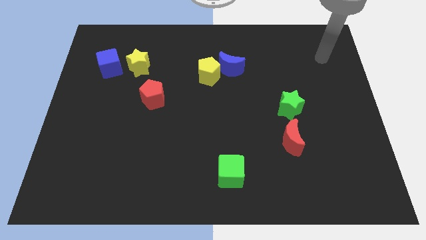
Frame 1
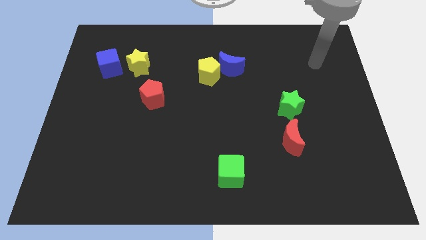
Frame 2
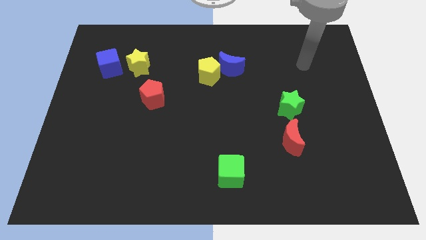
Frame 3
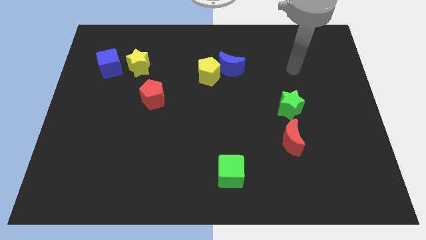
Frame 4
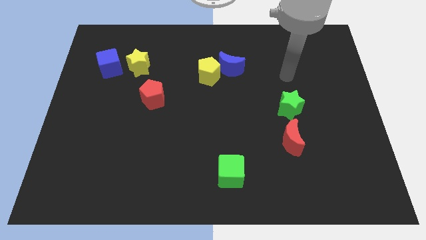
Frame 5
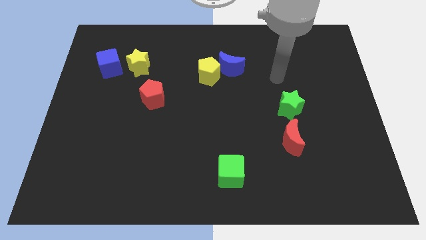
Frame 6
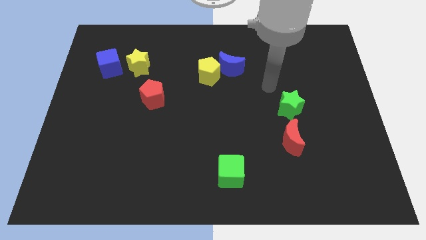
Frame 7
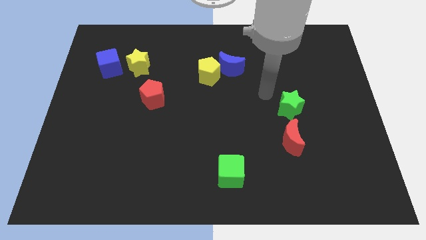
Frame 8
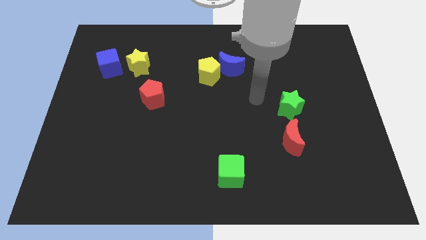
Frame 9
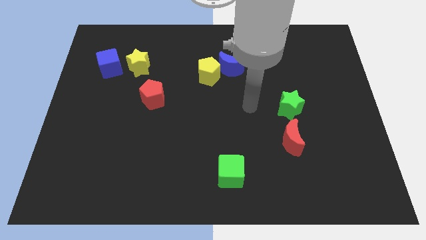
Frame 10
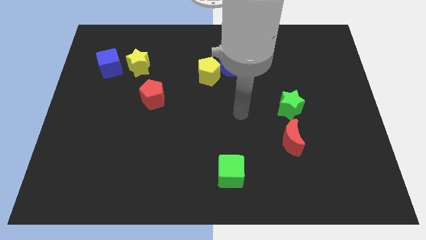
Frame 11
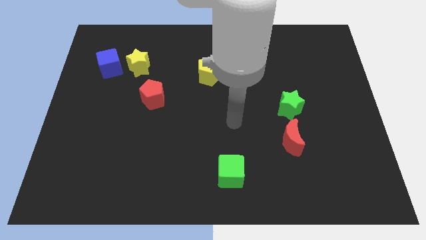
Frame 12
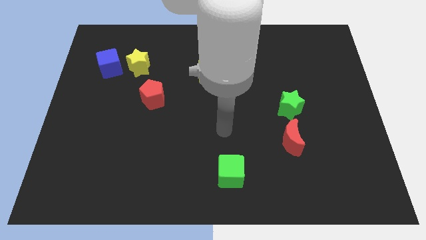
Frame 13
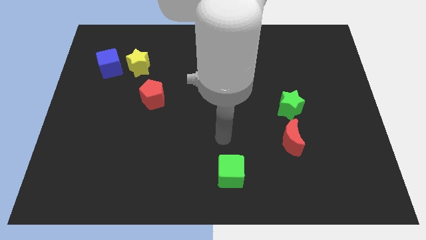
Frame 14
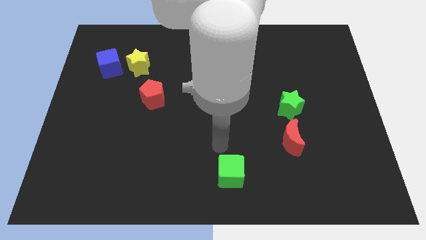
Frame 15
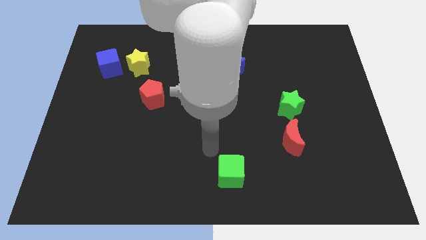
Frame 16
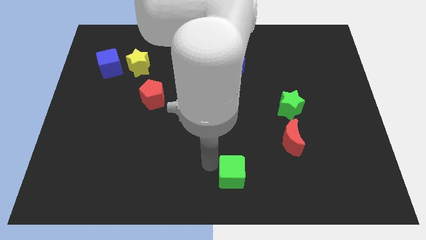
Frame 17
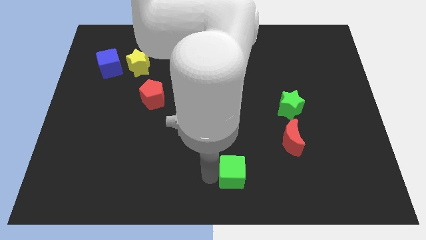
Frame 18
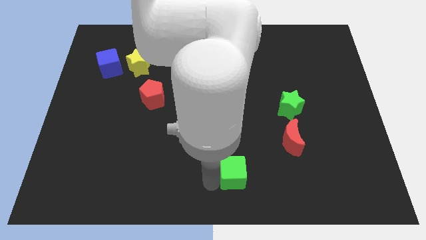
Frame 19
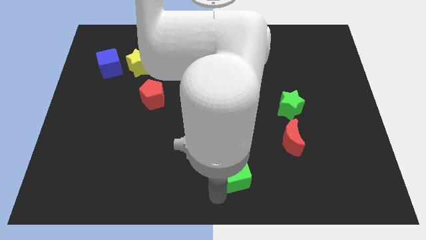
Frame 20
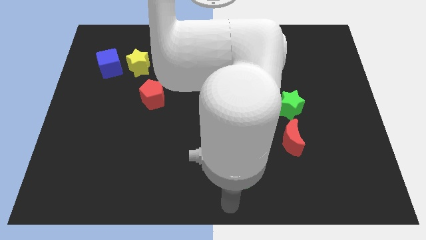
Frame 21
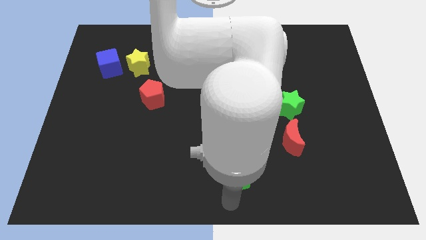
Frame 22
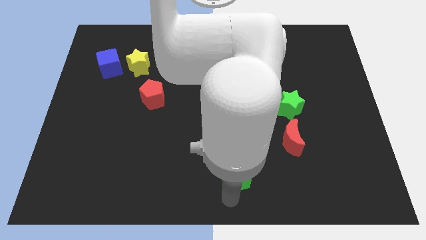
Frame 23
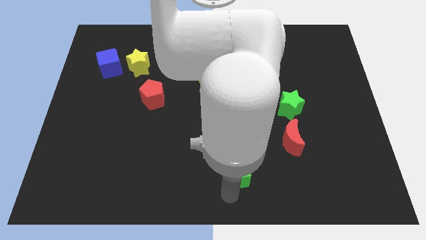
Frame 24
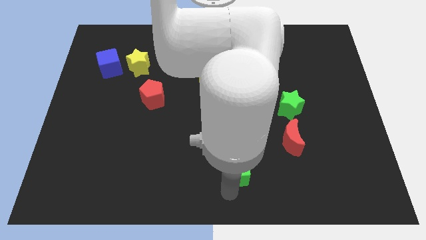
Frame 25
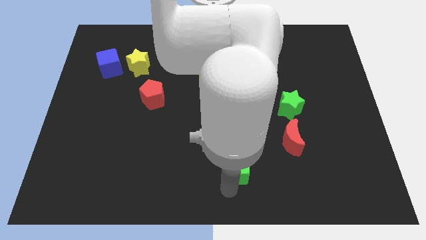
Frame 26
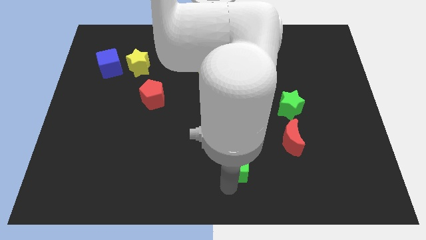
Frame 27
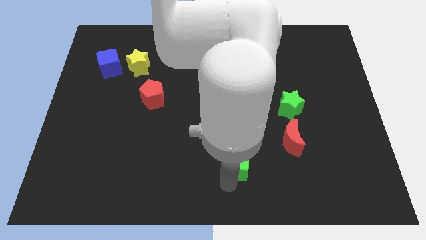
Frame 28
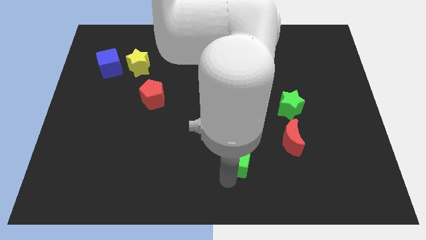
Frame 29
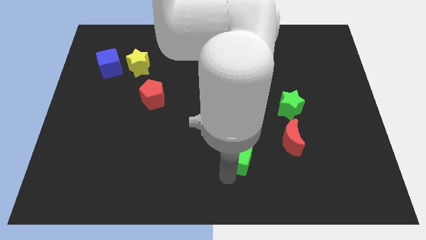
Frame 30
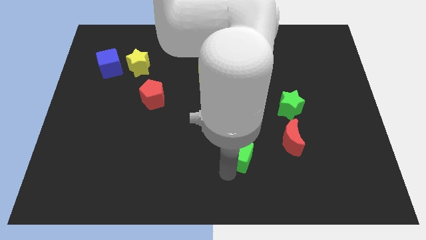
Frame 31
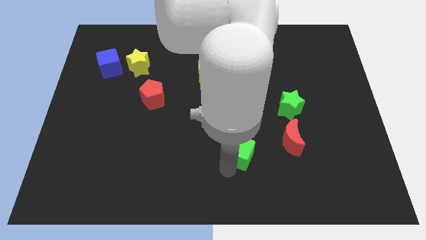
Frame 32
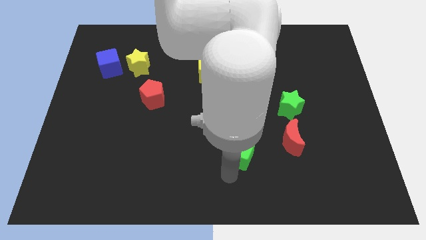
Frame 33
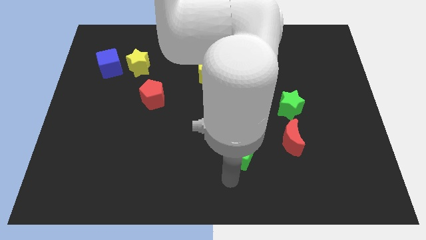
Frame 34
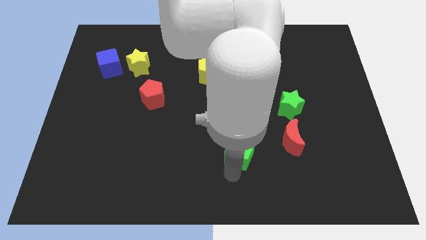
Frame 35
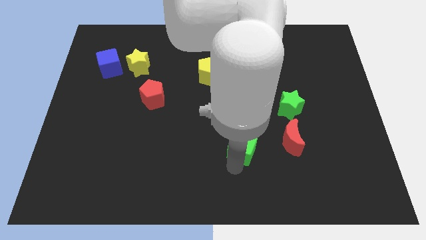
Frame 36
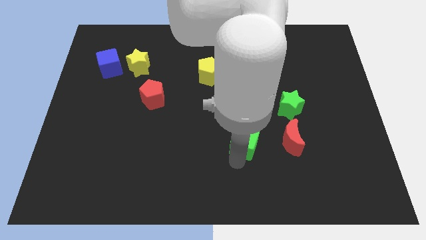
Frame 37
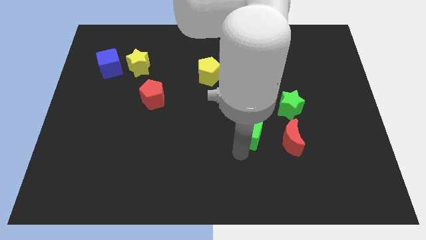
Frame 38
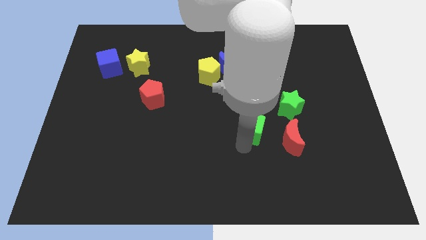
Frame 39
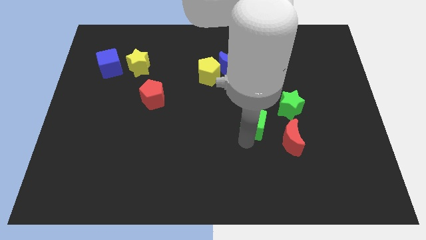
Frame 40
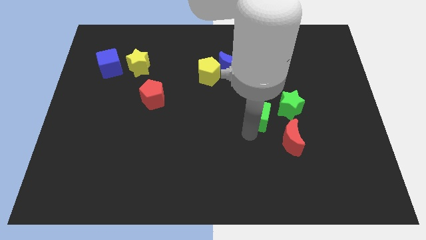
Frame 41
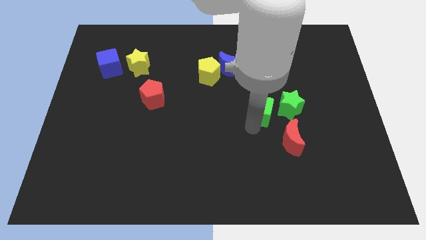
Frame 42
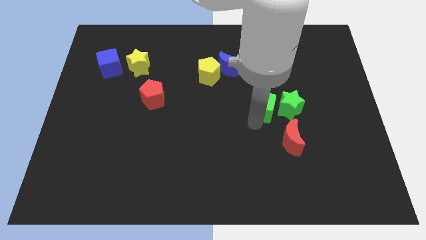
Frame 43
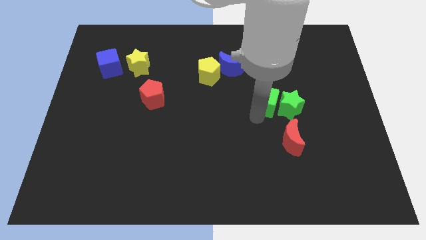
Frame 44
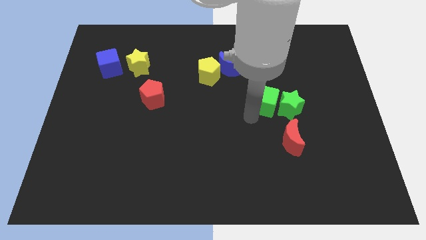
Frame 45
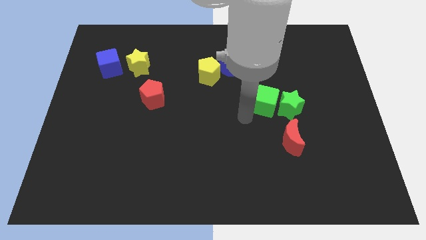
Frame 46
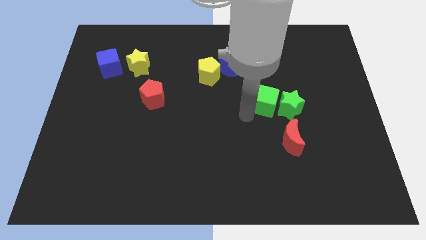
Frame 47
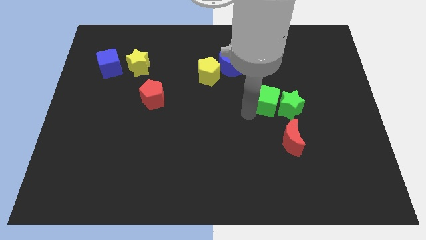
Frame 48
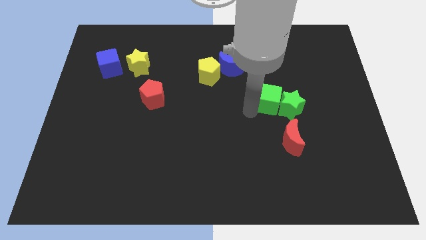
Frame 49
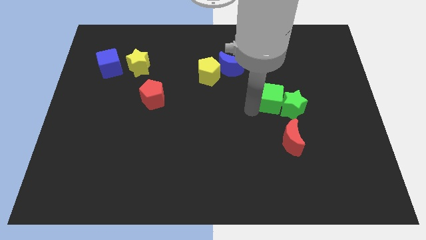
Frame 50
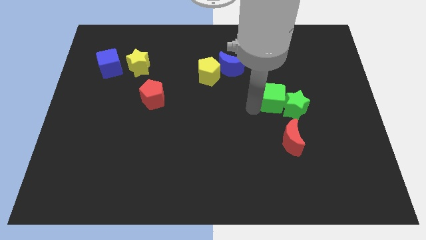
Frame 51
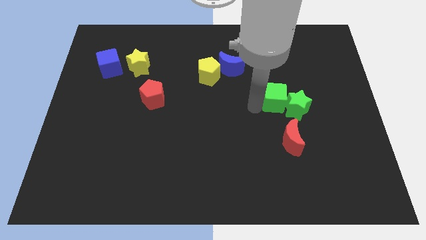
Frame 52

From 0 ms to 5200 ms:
move the green cube diagonally up and right

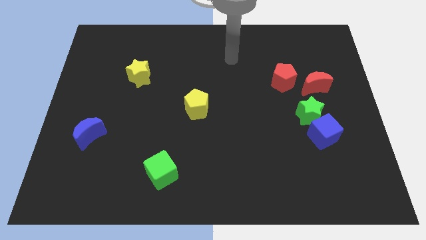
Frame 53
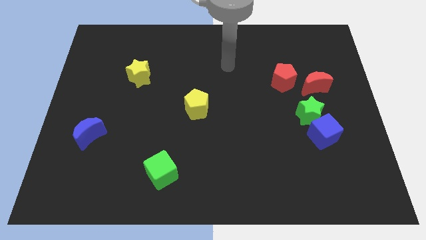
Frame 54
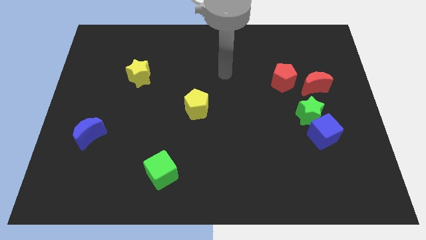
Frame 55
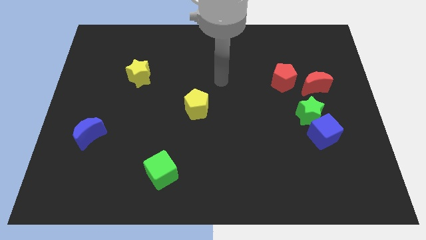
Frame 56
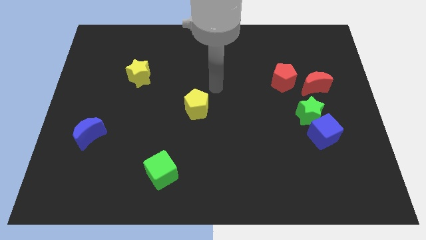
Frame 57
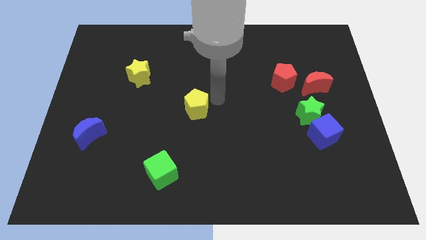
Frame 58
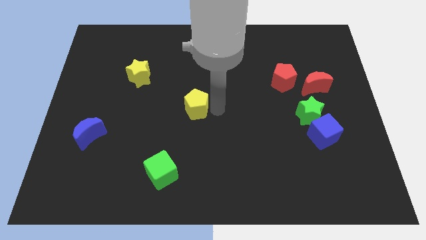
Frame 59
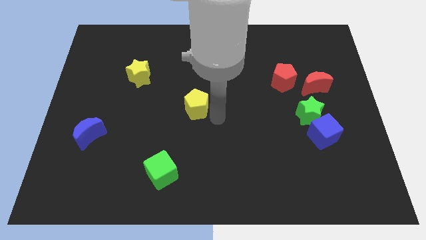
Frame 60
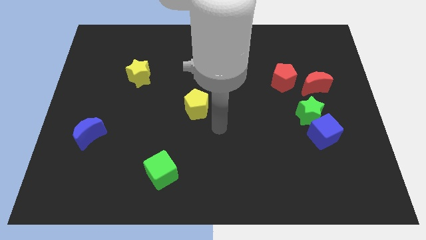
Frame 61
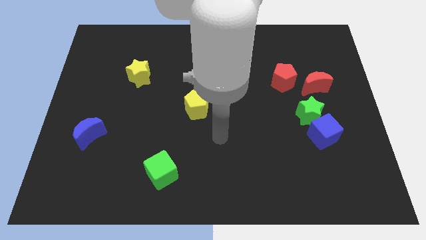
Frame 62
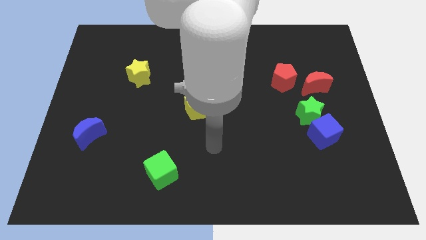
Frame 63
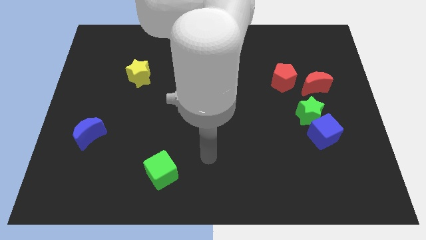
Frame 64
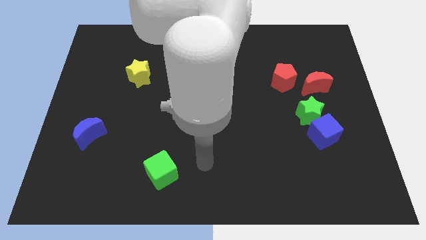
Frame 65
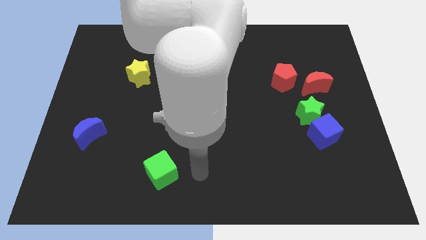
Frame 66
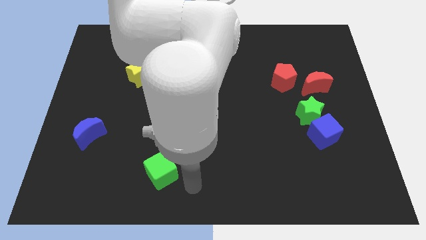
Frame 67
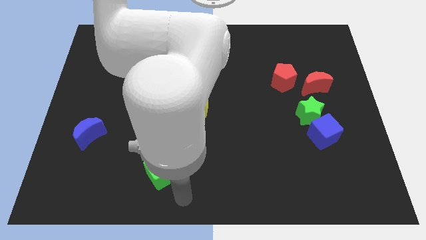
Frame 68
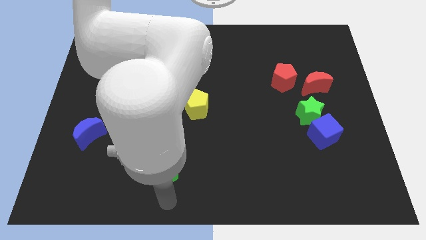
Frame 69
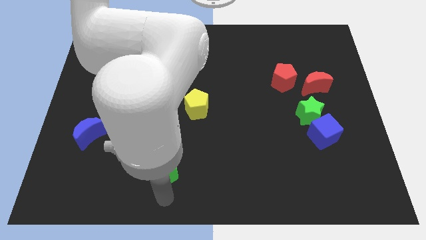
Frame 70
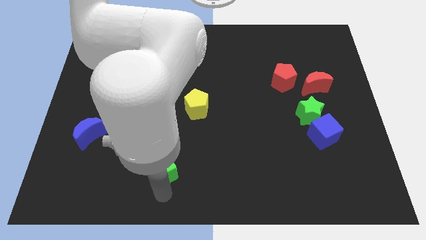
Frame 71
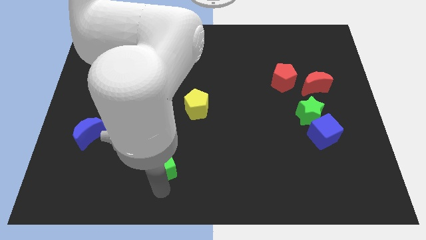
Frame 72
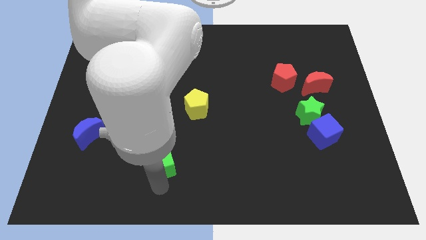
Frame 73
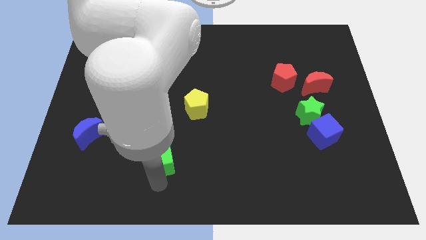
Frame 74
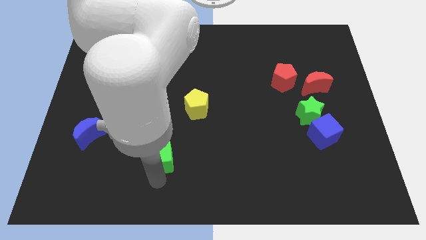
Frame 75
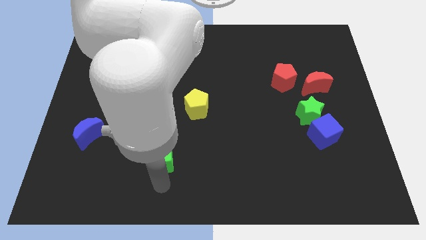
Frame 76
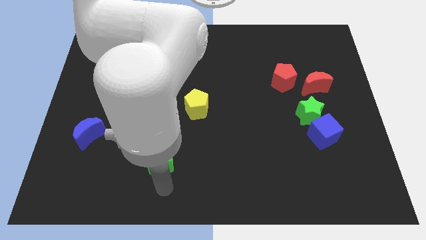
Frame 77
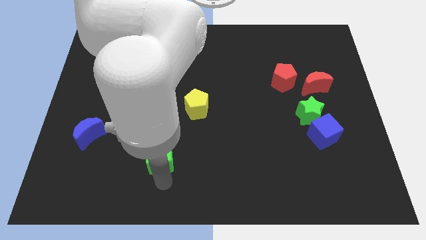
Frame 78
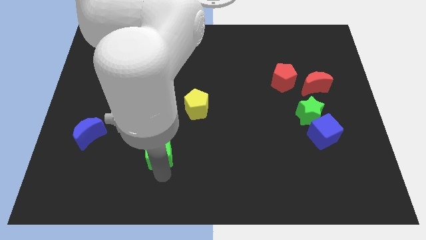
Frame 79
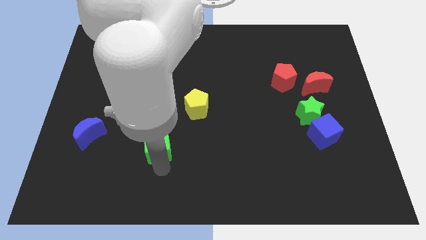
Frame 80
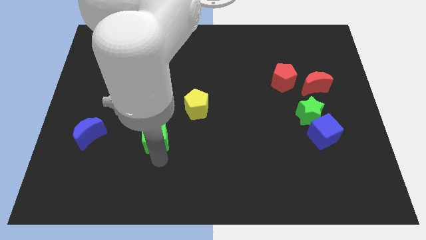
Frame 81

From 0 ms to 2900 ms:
move the green cube somewhat upwards

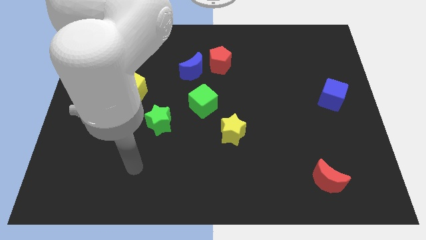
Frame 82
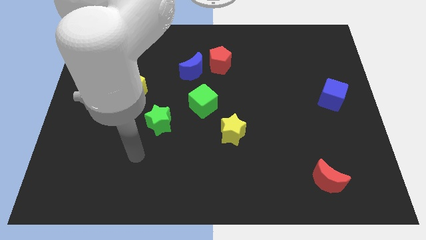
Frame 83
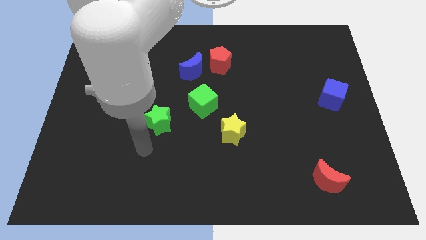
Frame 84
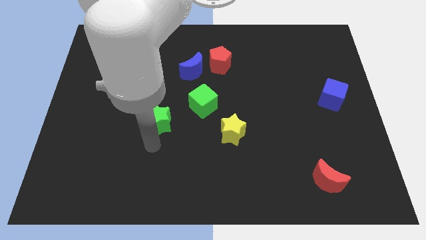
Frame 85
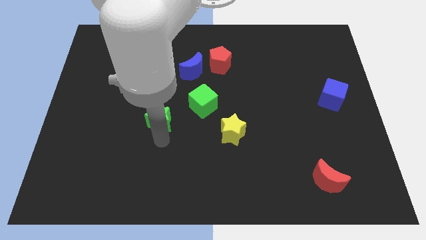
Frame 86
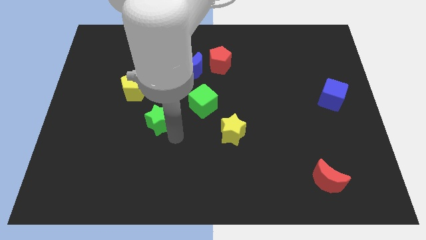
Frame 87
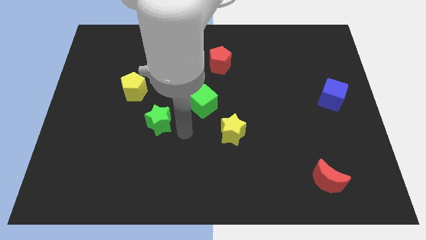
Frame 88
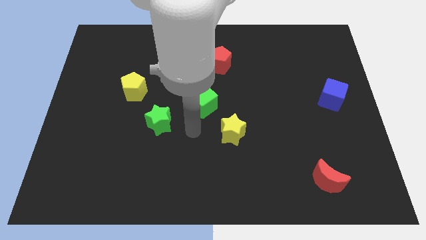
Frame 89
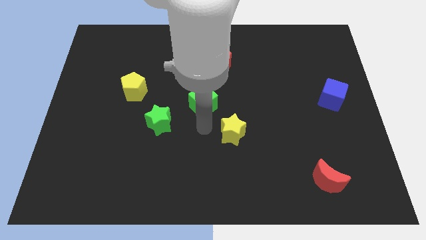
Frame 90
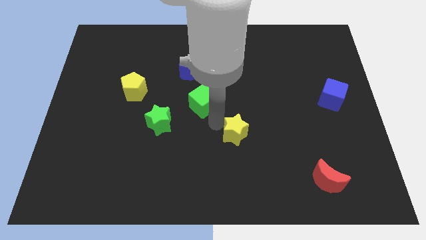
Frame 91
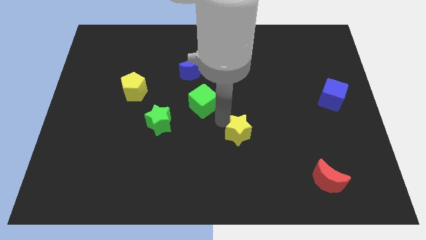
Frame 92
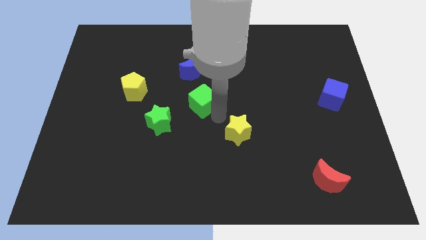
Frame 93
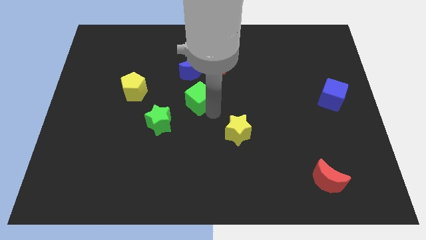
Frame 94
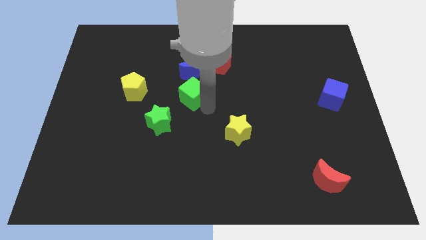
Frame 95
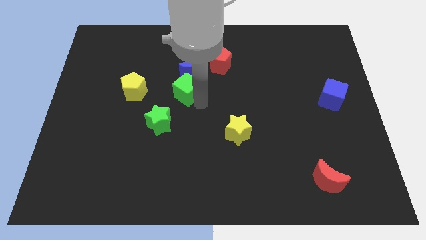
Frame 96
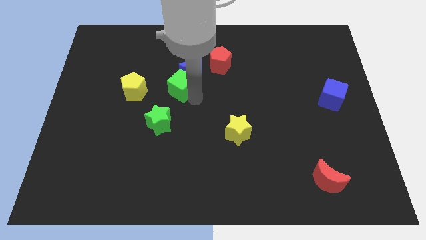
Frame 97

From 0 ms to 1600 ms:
push the green cube diagonally upwards and left a little bit
